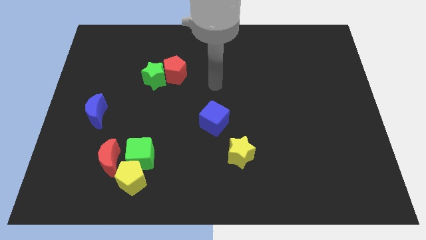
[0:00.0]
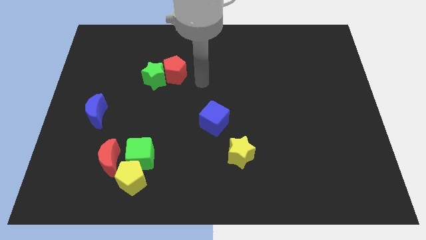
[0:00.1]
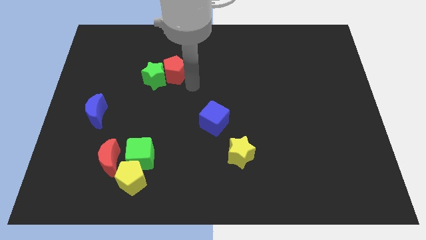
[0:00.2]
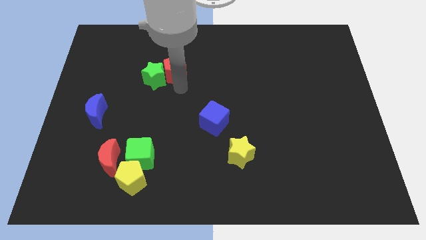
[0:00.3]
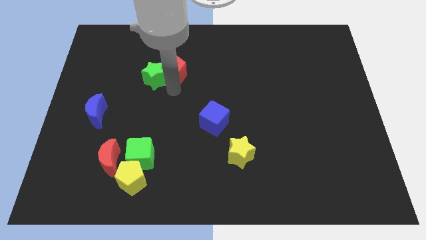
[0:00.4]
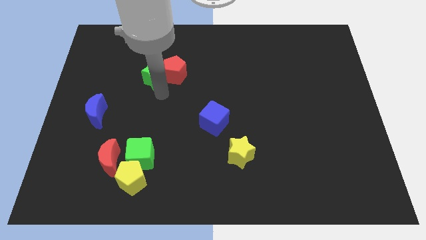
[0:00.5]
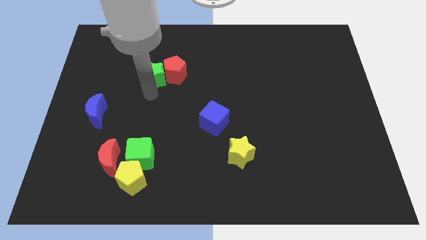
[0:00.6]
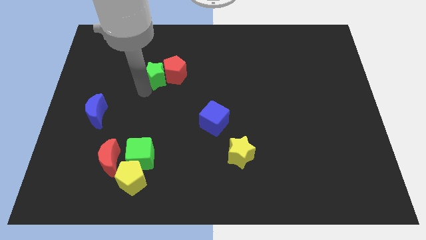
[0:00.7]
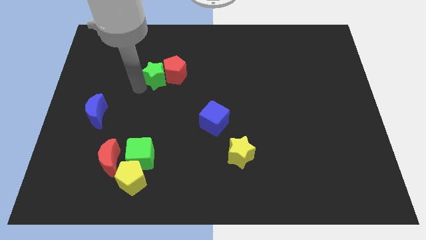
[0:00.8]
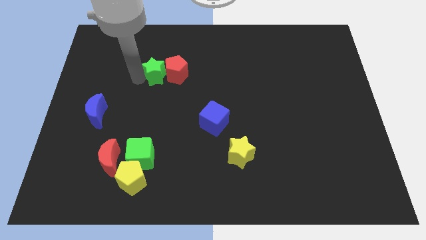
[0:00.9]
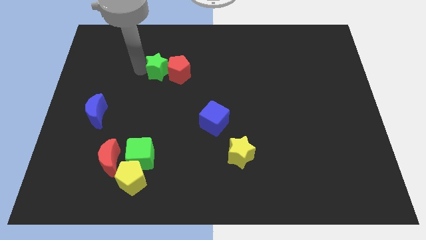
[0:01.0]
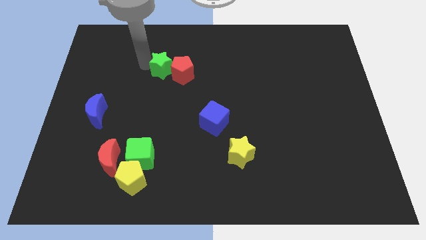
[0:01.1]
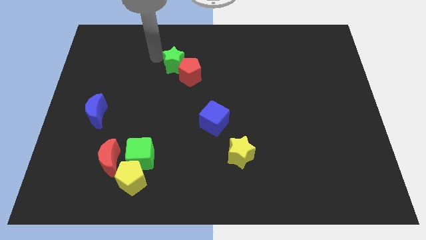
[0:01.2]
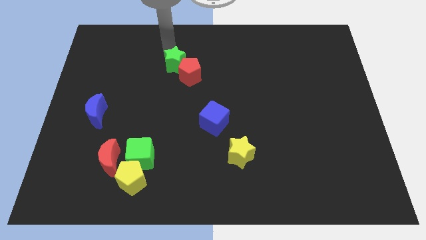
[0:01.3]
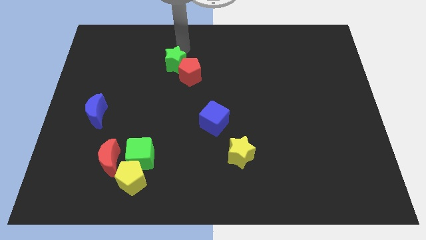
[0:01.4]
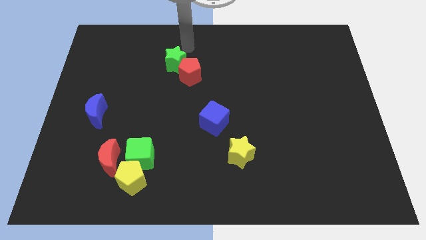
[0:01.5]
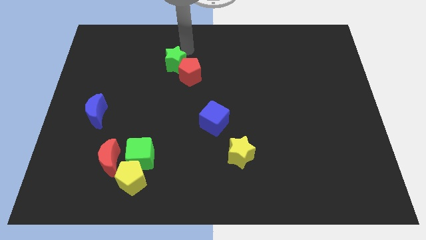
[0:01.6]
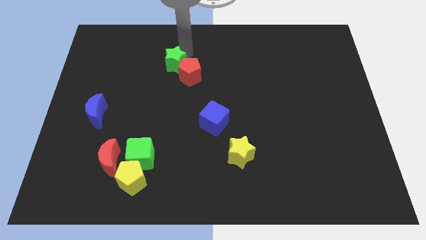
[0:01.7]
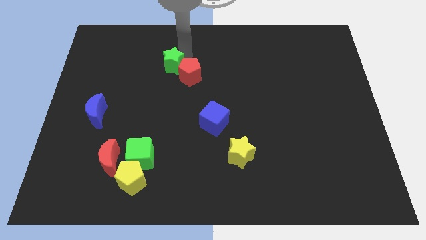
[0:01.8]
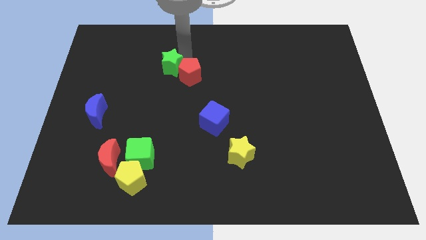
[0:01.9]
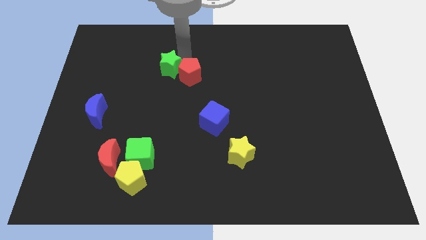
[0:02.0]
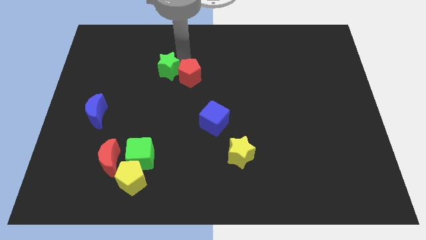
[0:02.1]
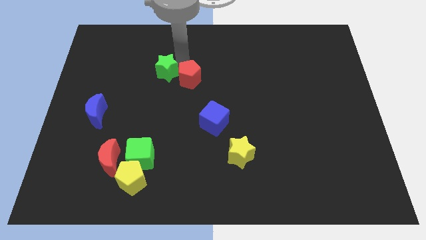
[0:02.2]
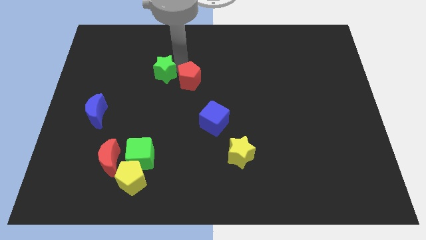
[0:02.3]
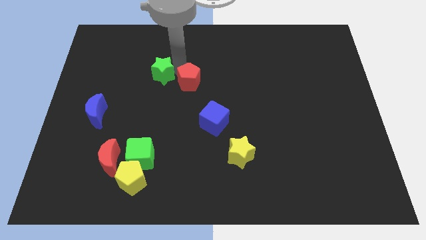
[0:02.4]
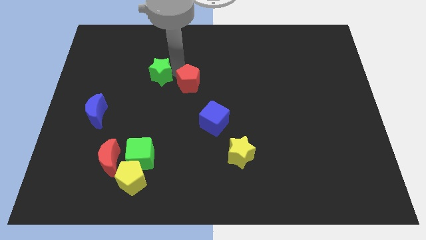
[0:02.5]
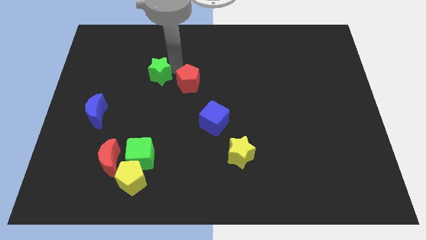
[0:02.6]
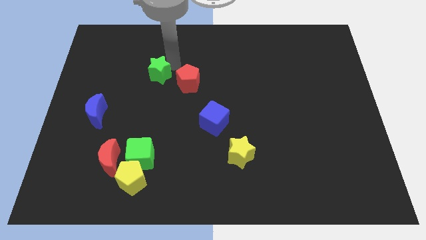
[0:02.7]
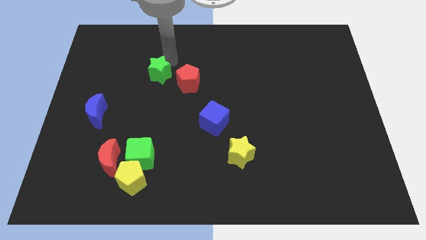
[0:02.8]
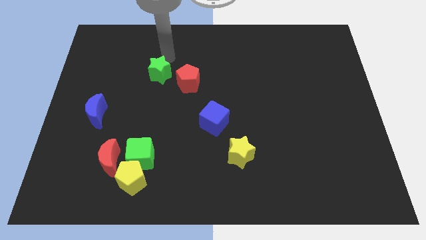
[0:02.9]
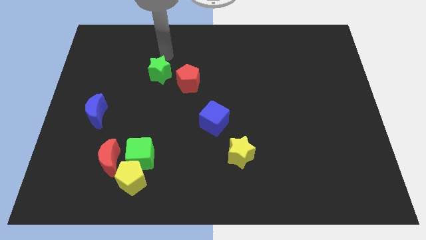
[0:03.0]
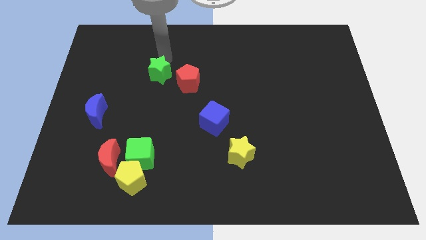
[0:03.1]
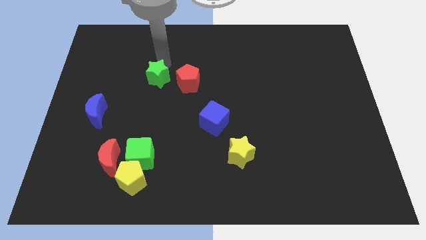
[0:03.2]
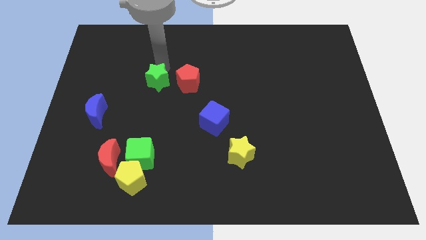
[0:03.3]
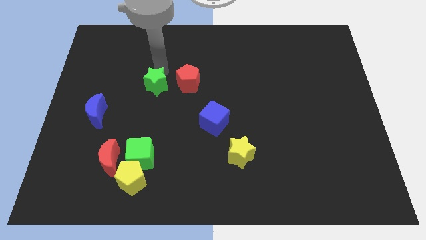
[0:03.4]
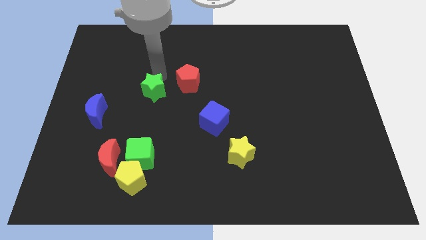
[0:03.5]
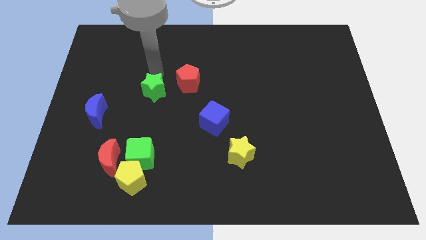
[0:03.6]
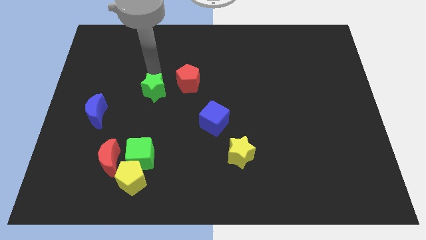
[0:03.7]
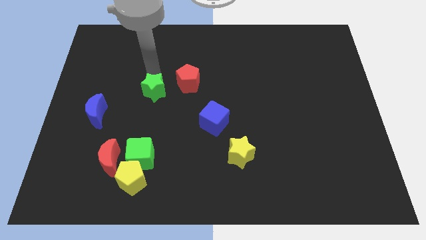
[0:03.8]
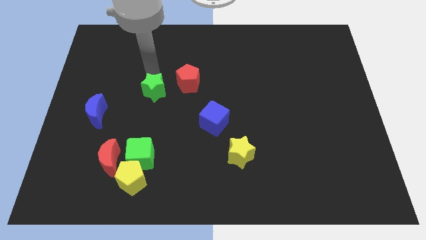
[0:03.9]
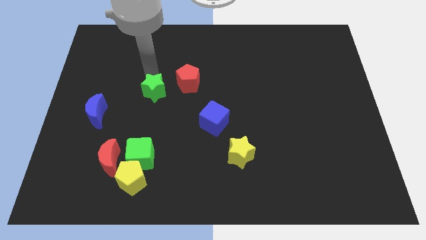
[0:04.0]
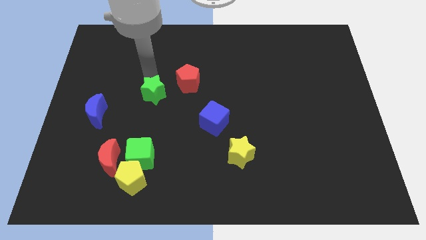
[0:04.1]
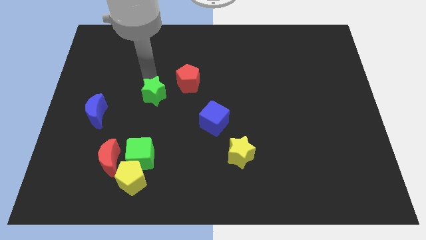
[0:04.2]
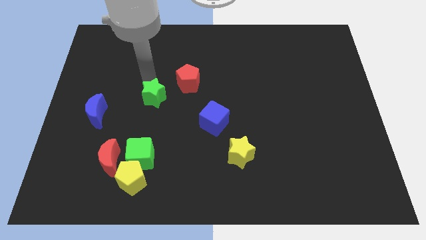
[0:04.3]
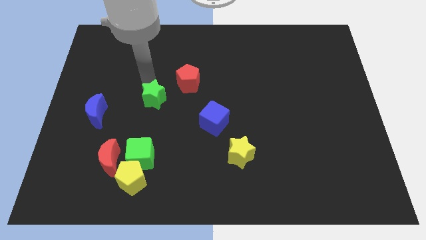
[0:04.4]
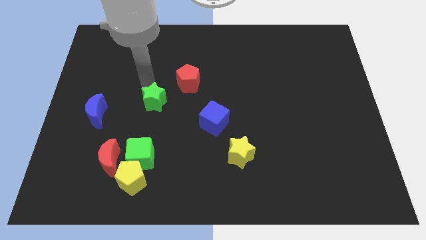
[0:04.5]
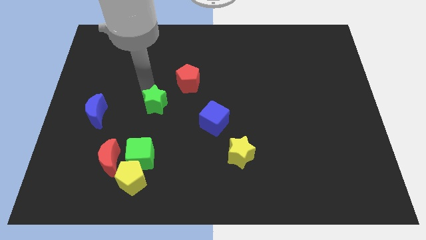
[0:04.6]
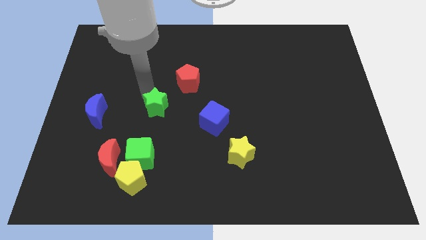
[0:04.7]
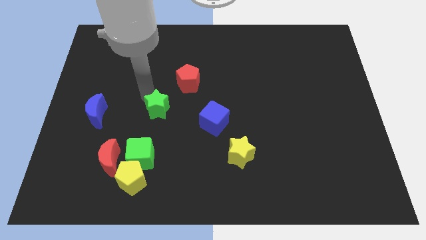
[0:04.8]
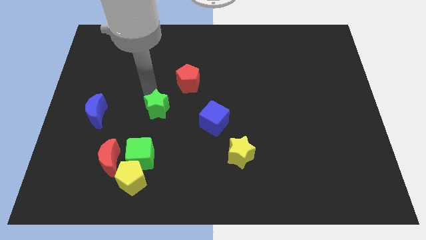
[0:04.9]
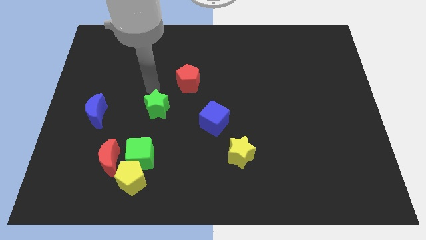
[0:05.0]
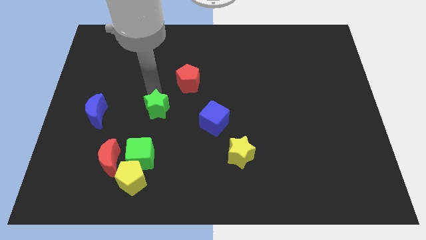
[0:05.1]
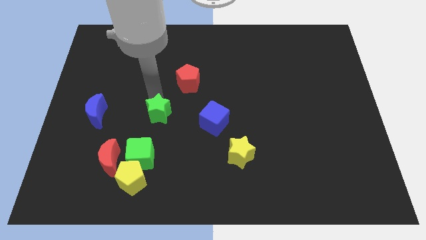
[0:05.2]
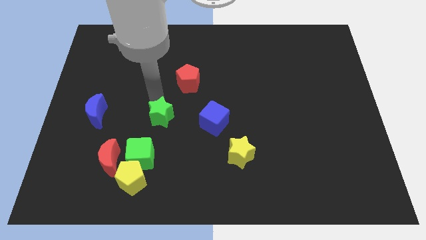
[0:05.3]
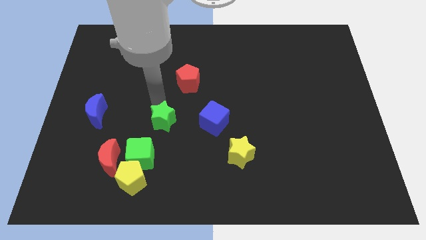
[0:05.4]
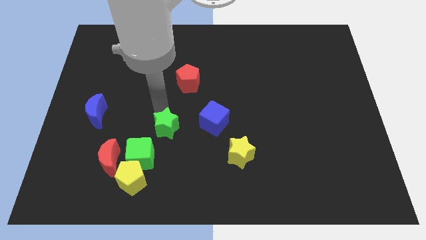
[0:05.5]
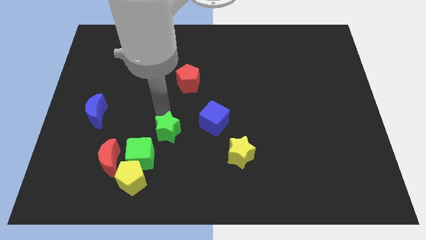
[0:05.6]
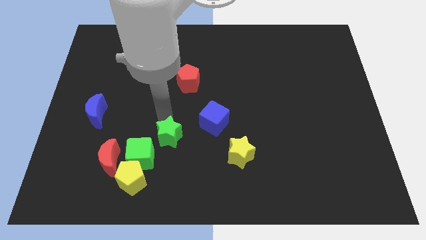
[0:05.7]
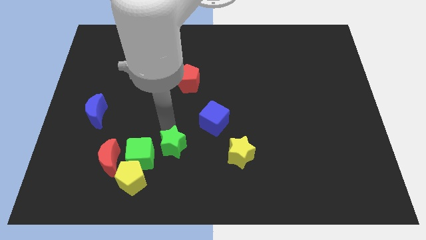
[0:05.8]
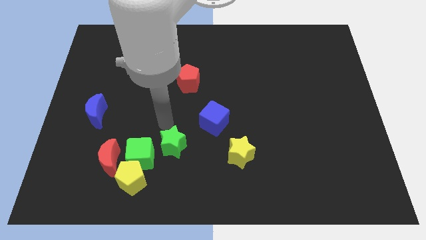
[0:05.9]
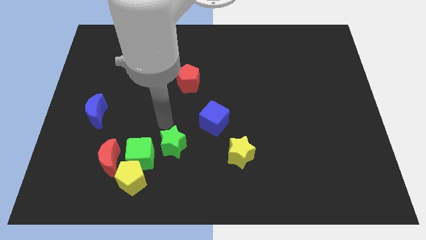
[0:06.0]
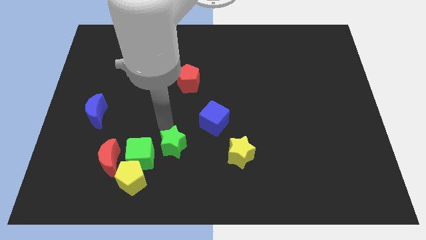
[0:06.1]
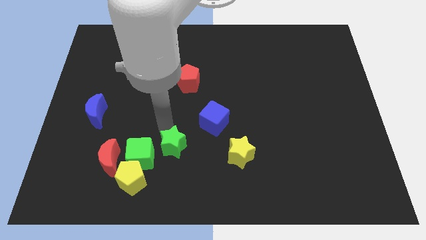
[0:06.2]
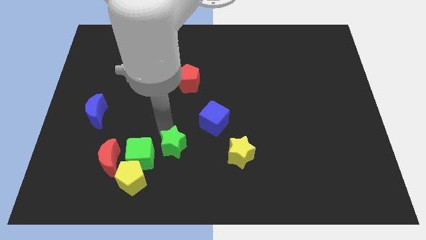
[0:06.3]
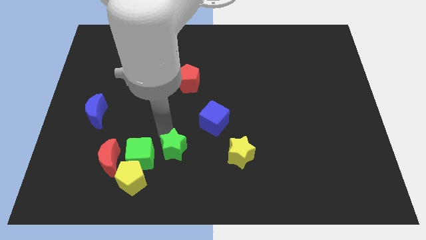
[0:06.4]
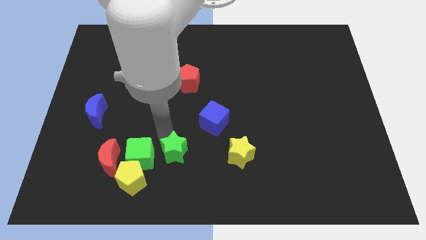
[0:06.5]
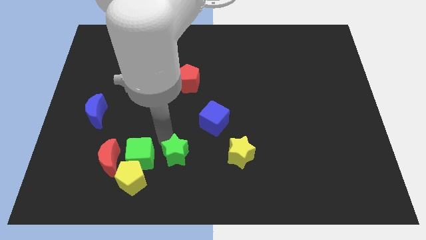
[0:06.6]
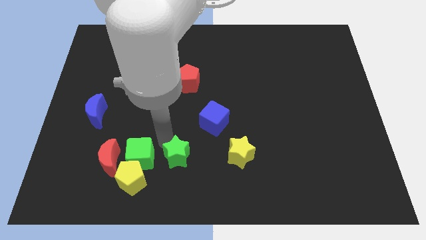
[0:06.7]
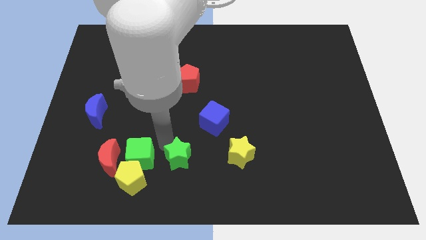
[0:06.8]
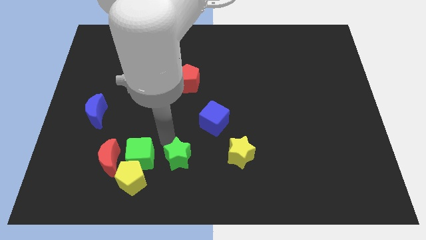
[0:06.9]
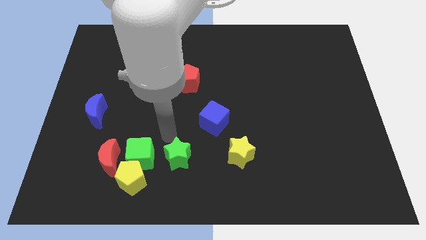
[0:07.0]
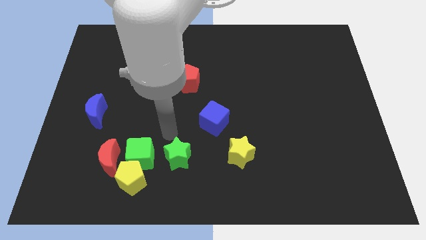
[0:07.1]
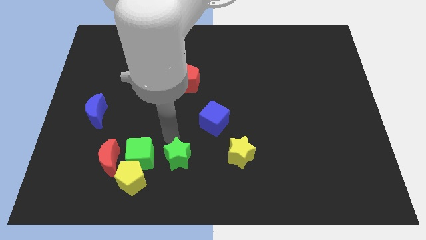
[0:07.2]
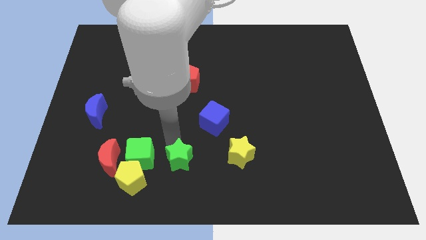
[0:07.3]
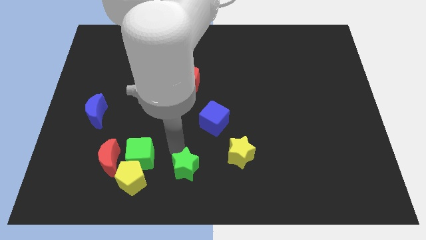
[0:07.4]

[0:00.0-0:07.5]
move the green star to the bottom side
